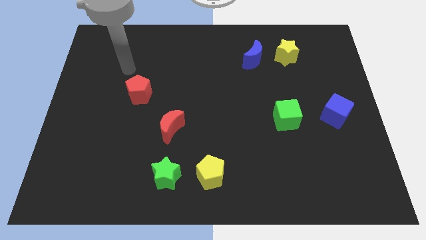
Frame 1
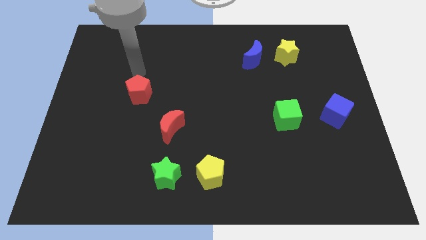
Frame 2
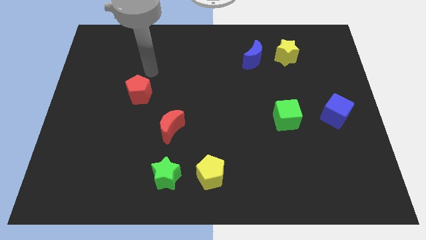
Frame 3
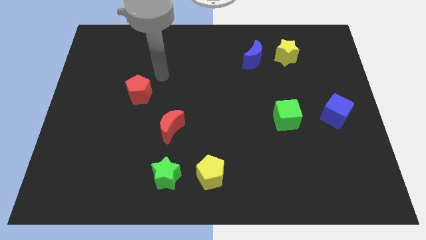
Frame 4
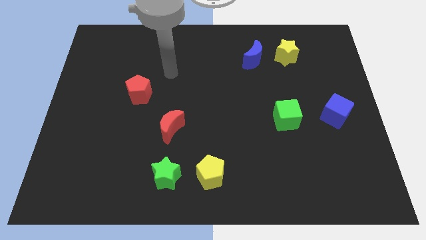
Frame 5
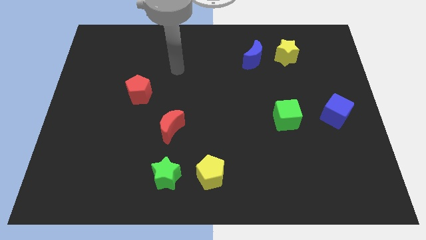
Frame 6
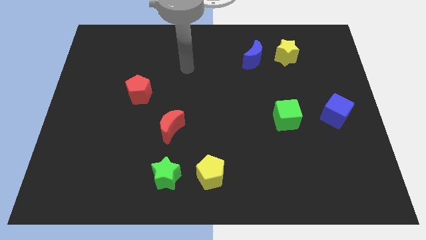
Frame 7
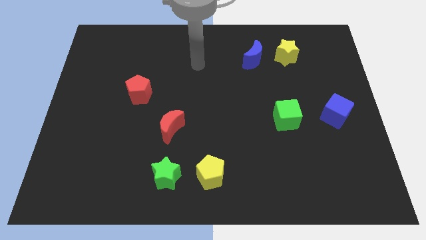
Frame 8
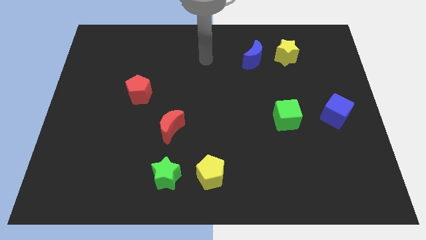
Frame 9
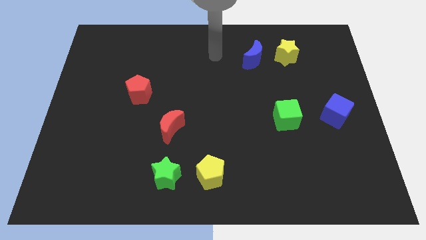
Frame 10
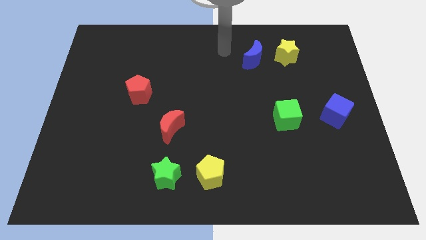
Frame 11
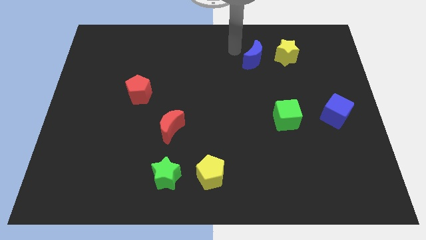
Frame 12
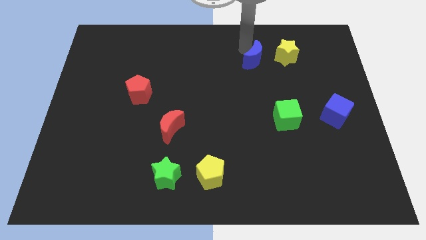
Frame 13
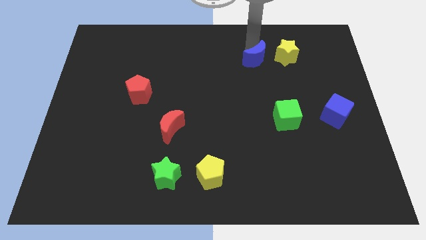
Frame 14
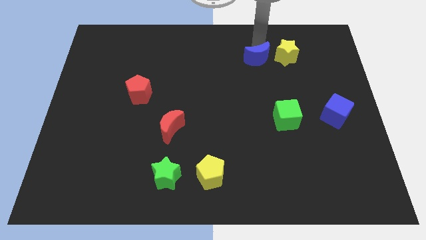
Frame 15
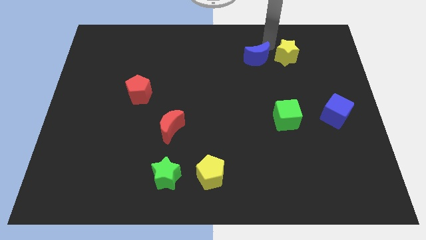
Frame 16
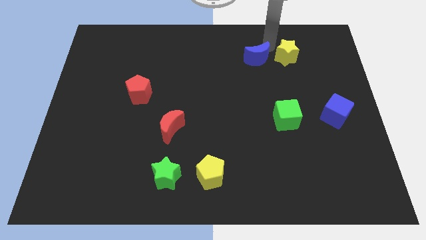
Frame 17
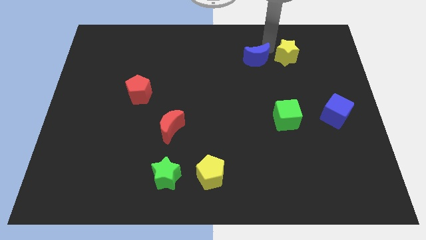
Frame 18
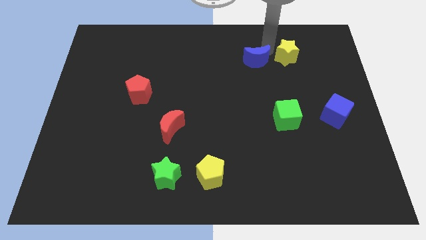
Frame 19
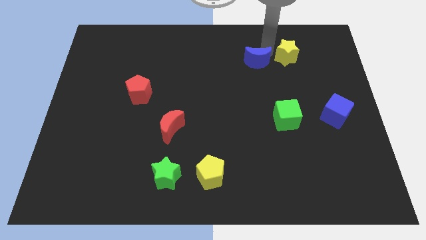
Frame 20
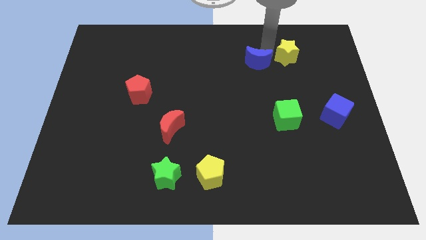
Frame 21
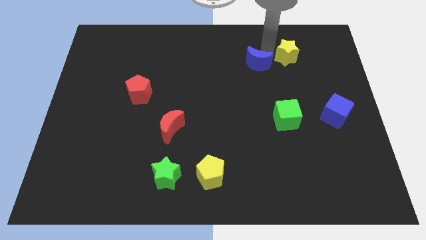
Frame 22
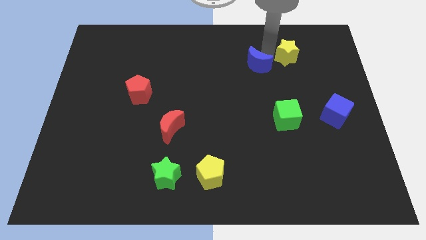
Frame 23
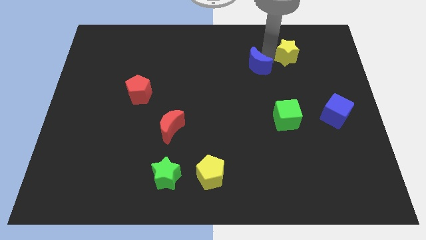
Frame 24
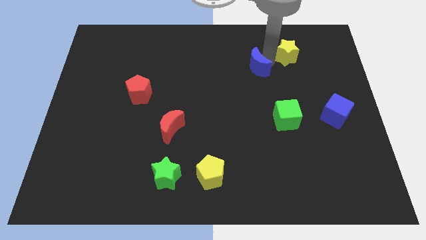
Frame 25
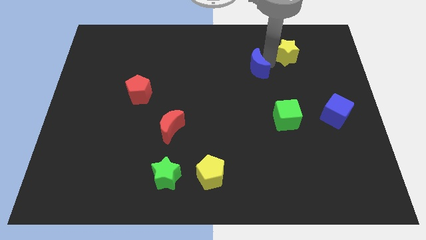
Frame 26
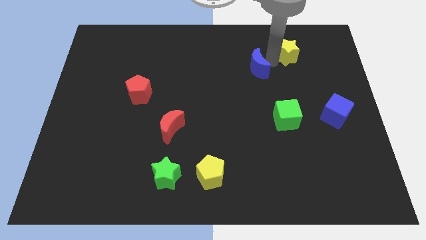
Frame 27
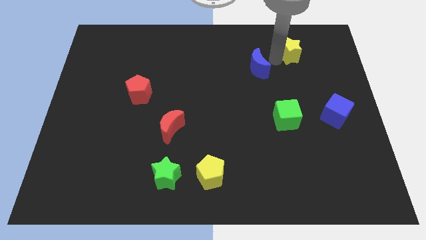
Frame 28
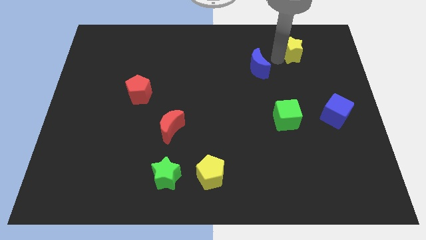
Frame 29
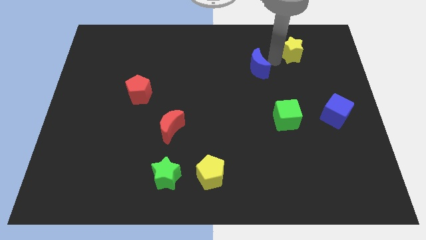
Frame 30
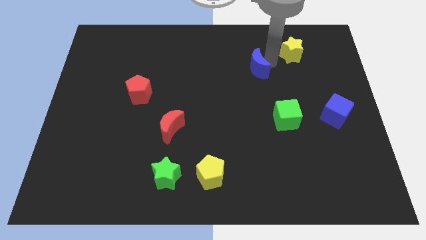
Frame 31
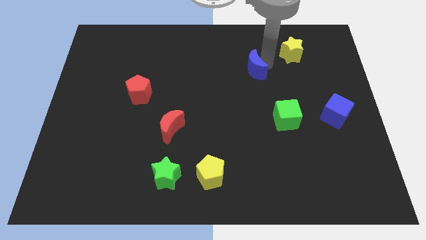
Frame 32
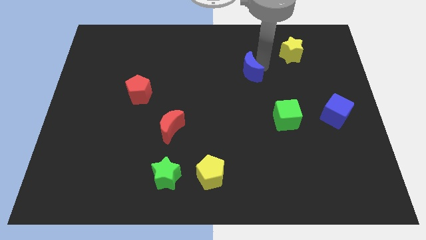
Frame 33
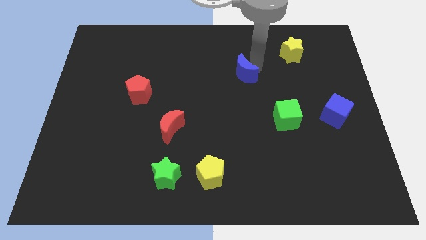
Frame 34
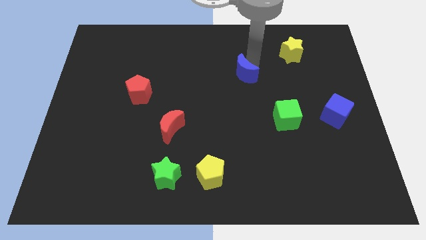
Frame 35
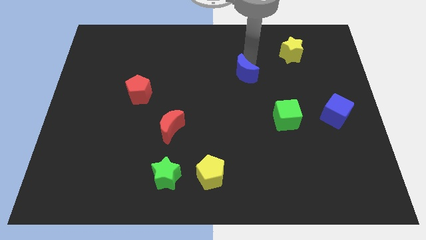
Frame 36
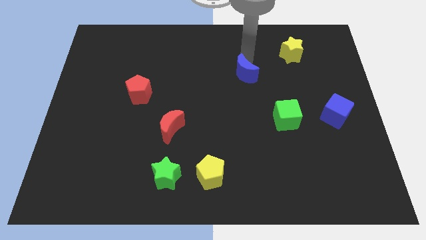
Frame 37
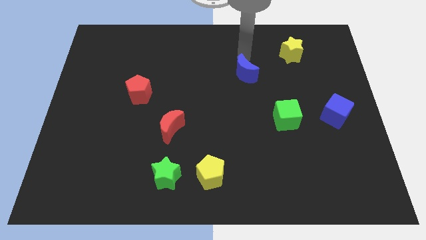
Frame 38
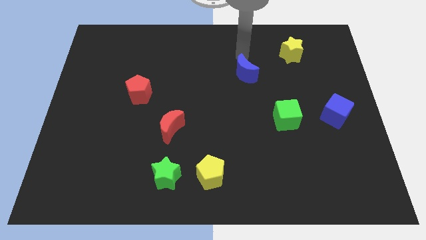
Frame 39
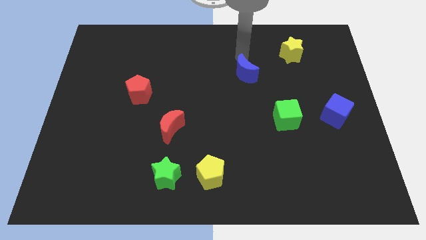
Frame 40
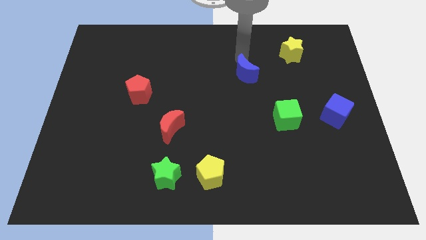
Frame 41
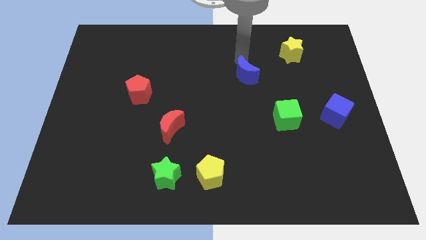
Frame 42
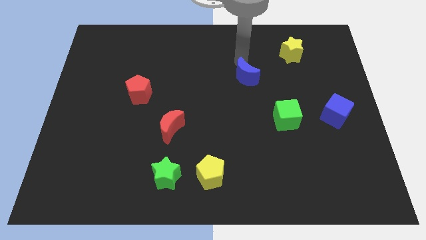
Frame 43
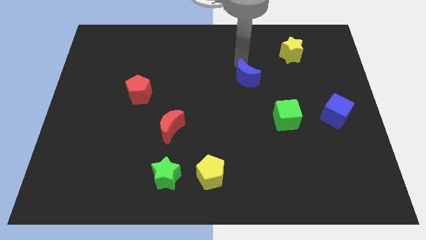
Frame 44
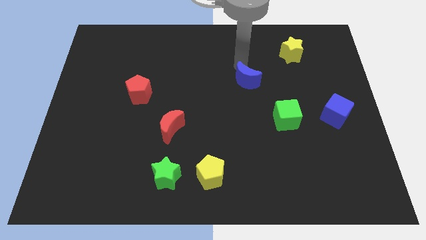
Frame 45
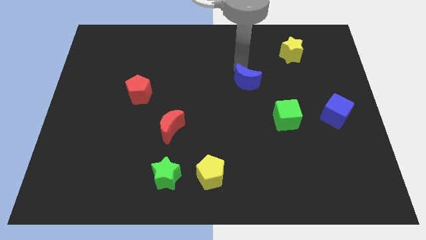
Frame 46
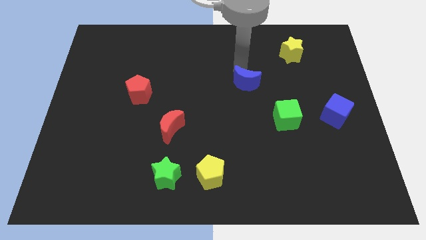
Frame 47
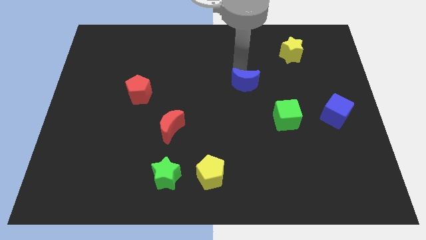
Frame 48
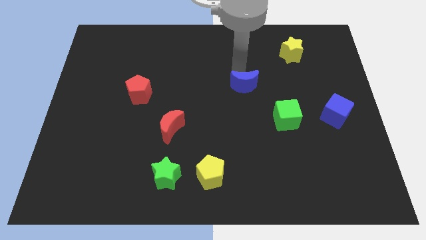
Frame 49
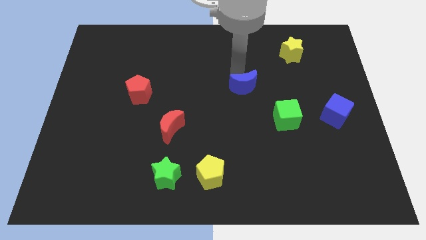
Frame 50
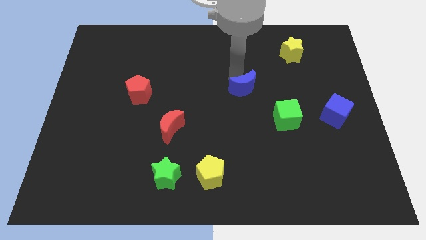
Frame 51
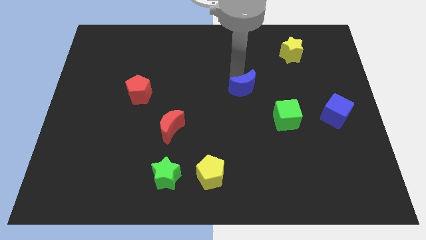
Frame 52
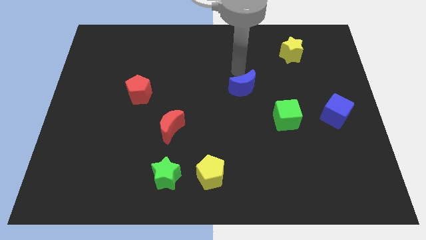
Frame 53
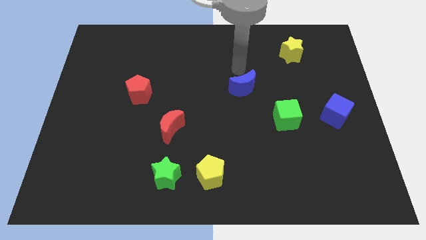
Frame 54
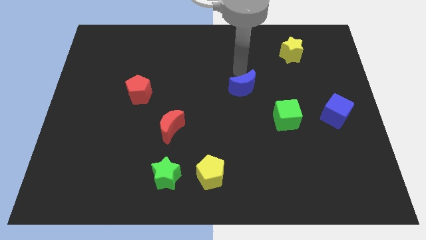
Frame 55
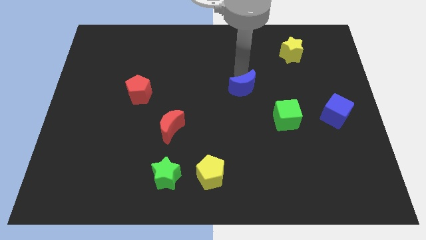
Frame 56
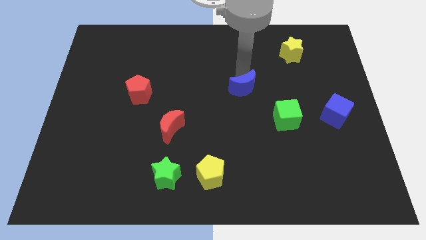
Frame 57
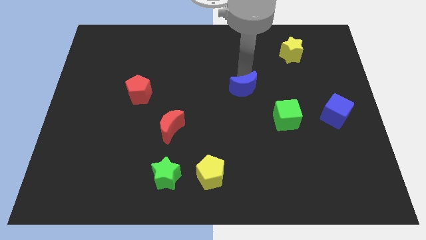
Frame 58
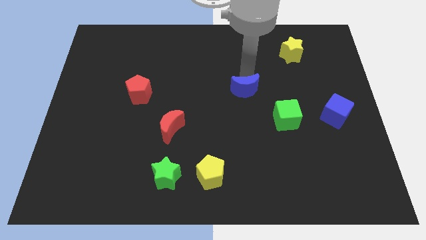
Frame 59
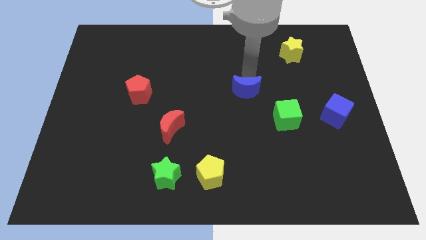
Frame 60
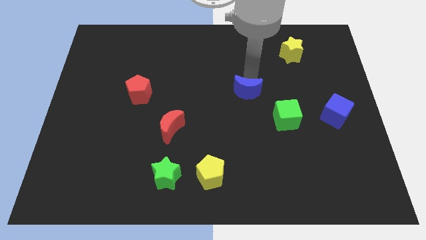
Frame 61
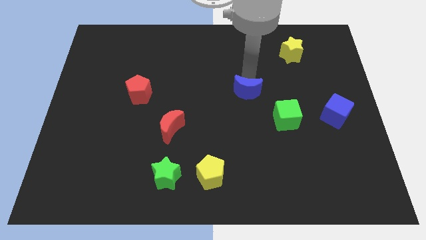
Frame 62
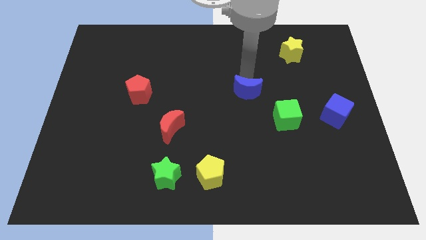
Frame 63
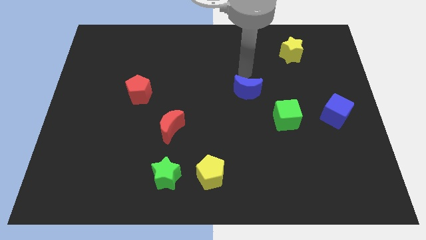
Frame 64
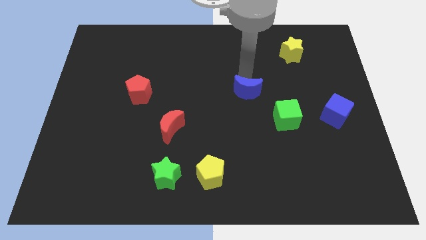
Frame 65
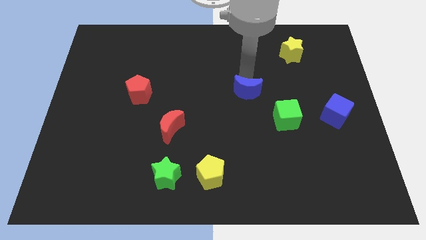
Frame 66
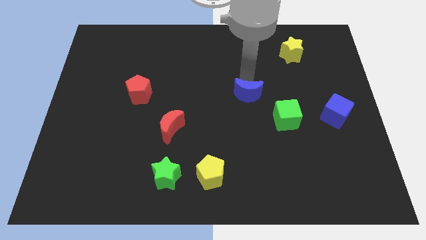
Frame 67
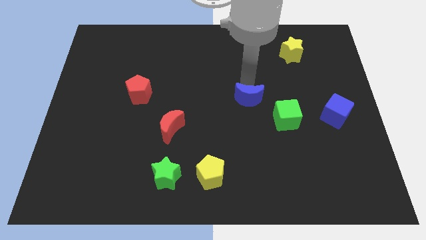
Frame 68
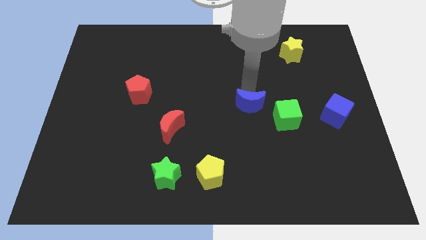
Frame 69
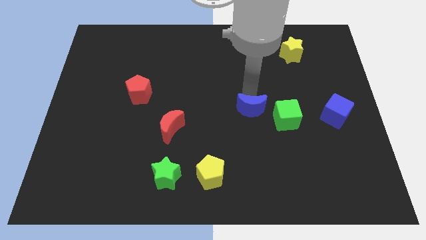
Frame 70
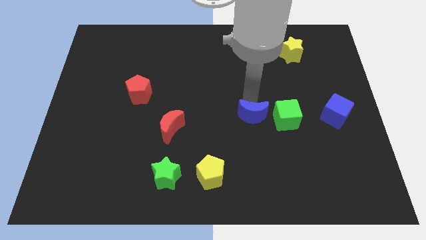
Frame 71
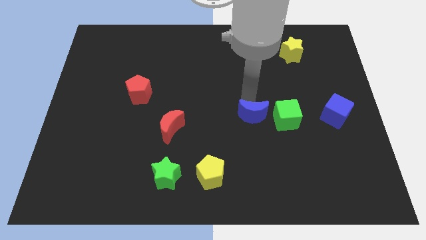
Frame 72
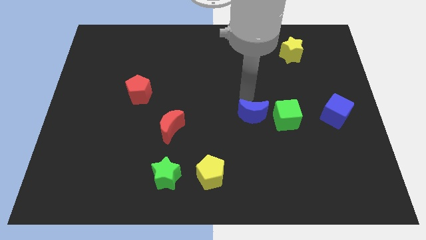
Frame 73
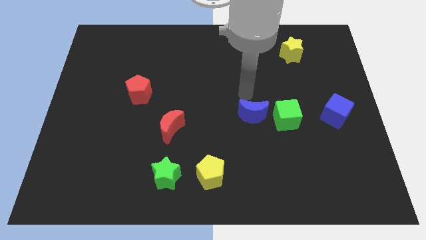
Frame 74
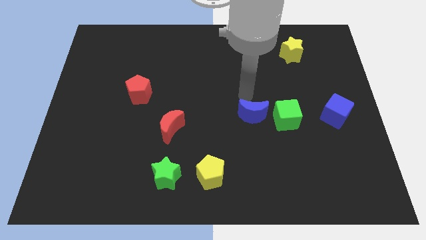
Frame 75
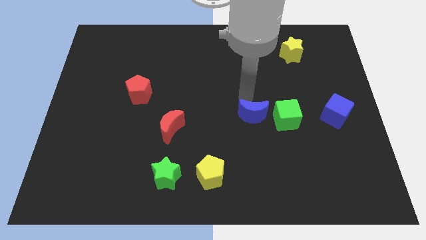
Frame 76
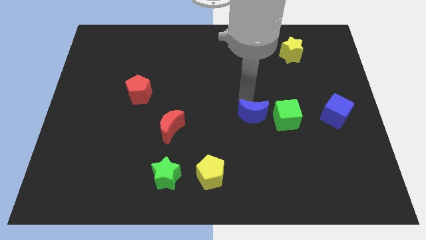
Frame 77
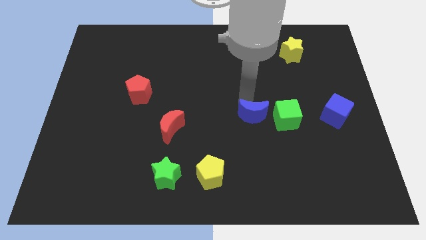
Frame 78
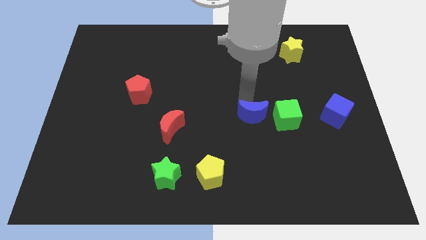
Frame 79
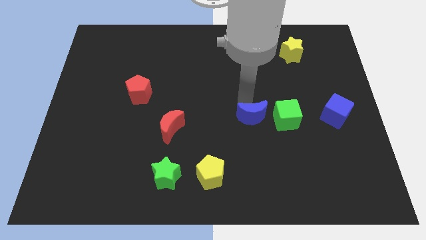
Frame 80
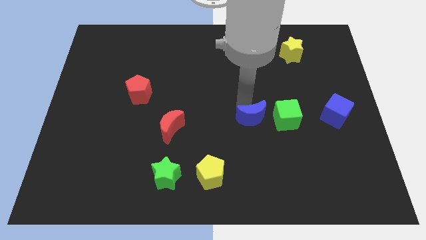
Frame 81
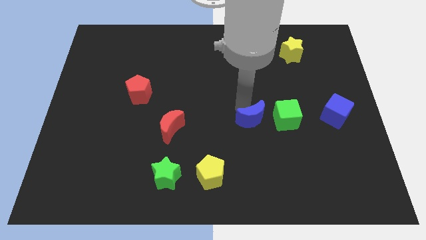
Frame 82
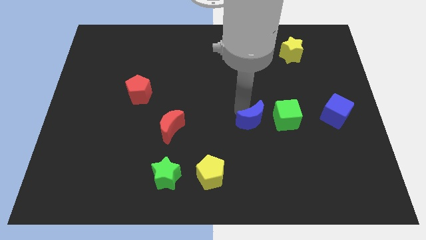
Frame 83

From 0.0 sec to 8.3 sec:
push the blue moon down
